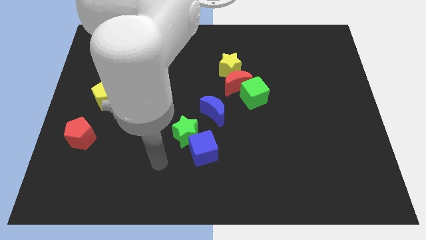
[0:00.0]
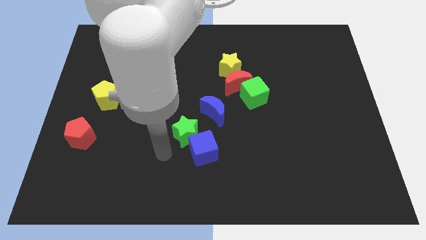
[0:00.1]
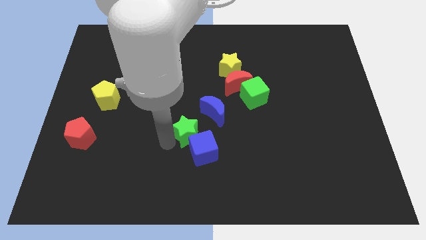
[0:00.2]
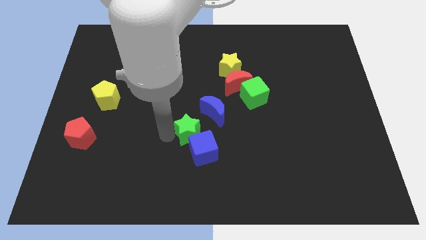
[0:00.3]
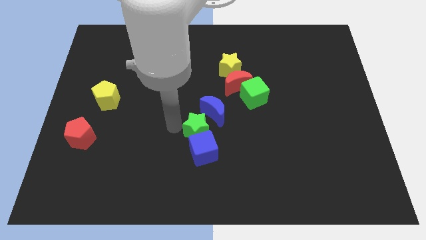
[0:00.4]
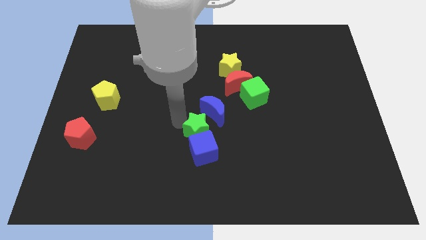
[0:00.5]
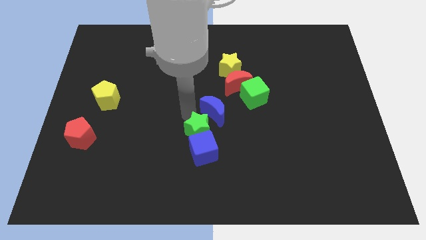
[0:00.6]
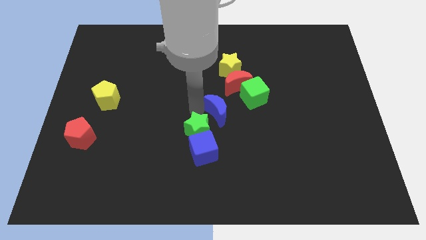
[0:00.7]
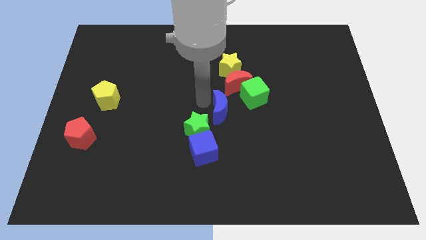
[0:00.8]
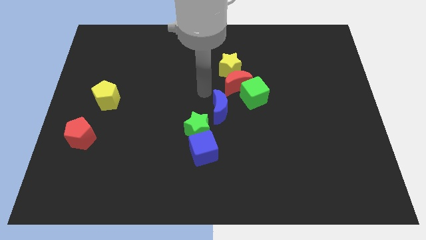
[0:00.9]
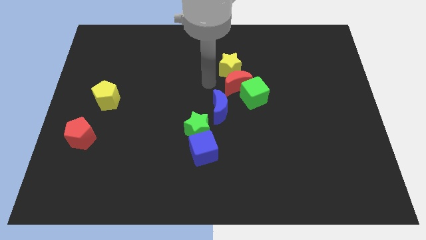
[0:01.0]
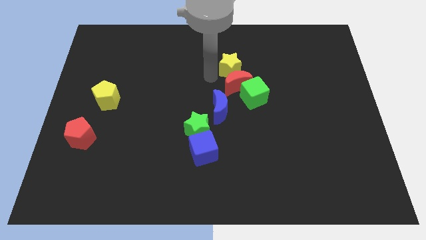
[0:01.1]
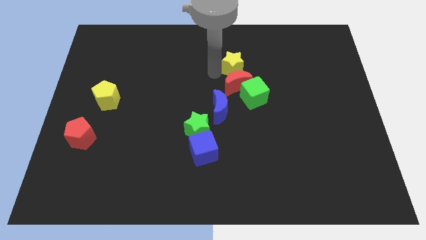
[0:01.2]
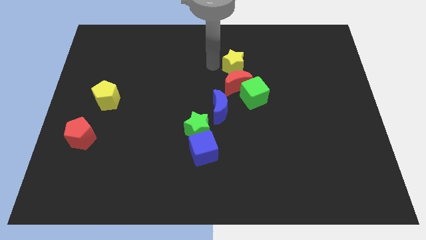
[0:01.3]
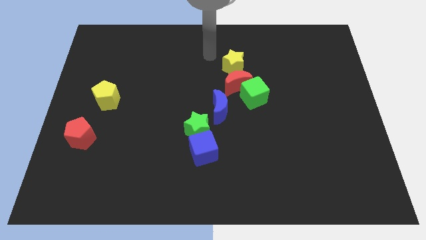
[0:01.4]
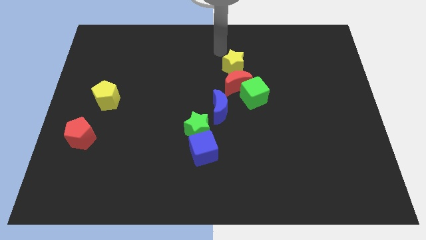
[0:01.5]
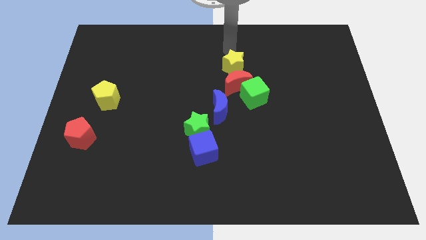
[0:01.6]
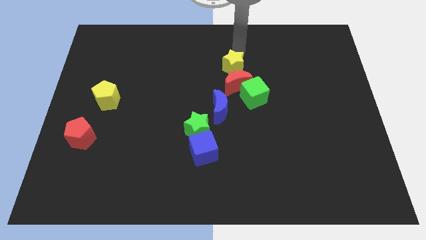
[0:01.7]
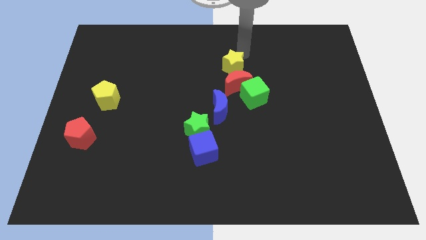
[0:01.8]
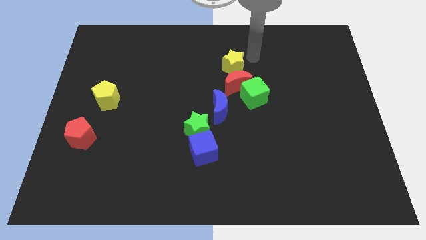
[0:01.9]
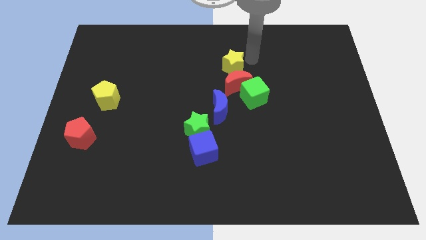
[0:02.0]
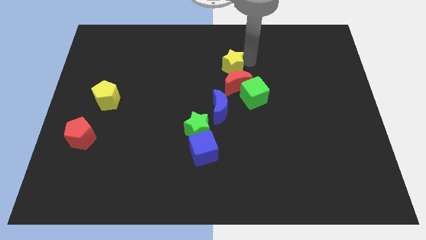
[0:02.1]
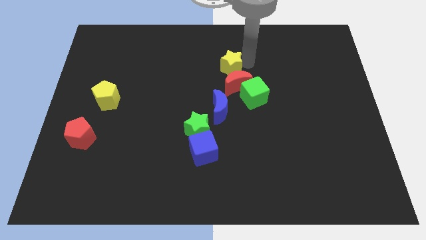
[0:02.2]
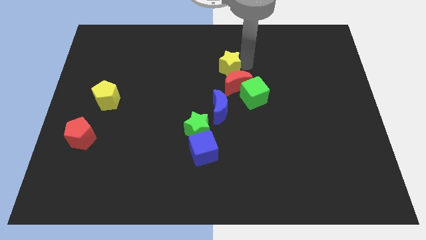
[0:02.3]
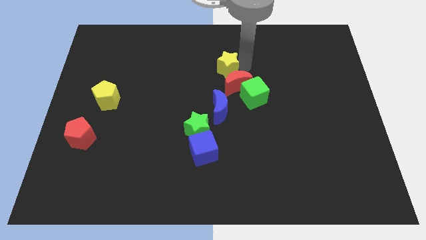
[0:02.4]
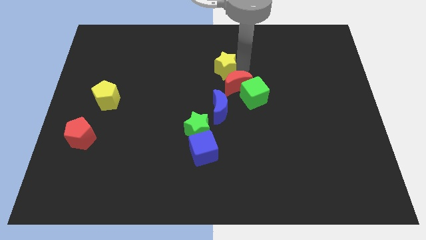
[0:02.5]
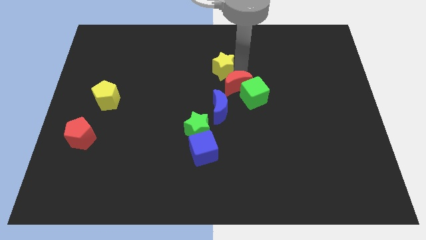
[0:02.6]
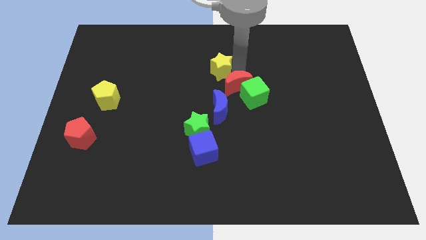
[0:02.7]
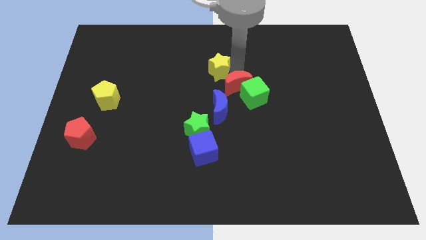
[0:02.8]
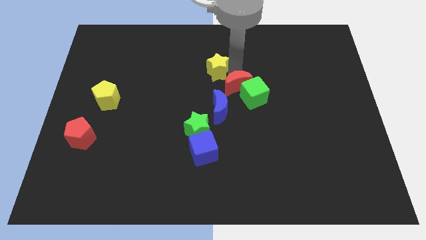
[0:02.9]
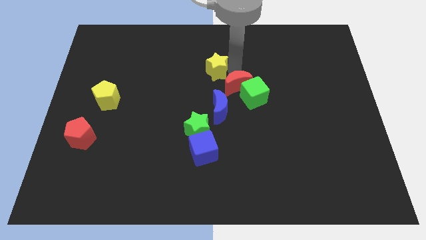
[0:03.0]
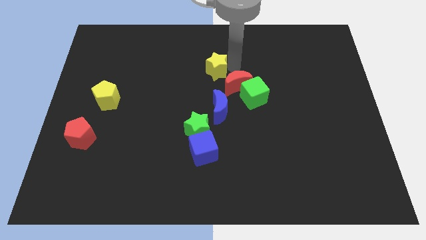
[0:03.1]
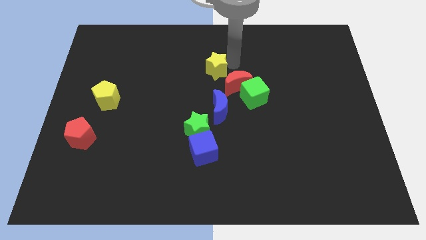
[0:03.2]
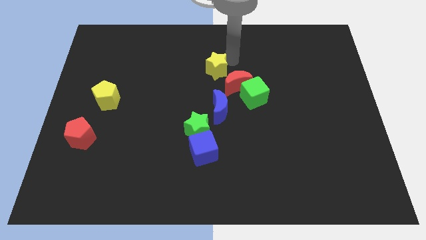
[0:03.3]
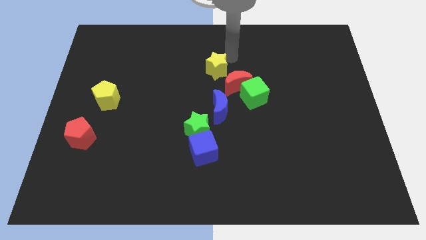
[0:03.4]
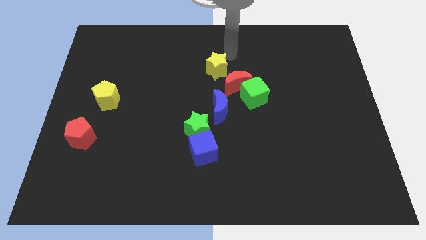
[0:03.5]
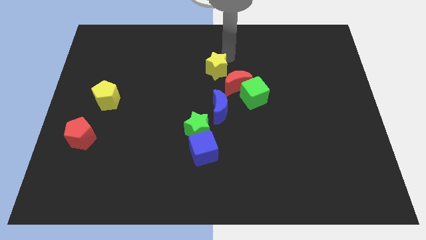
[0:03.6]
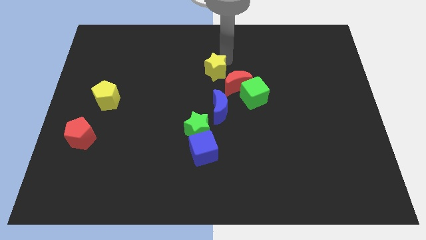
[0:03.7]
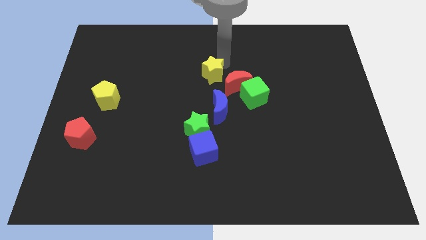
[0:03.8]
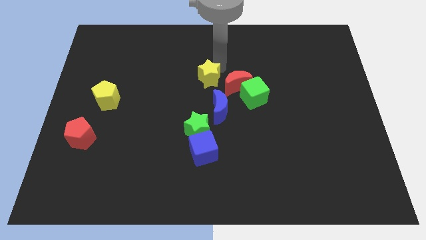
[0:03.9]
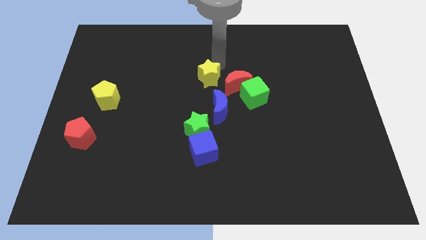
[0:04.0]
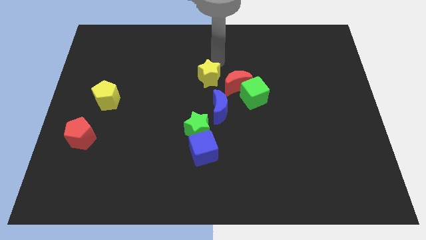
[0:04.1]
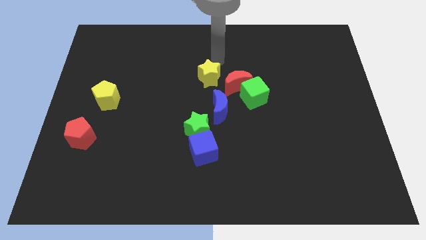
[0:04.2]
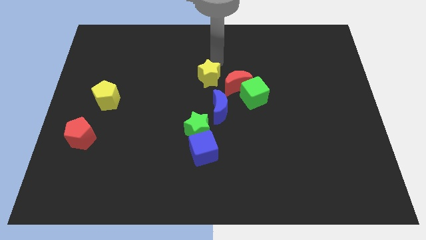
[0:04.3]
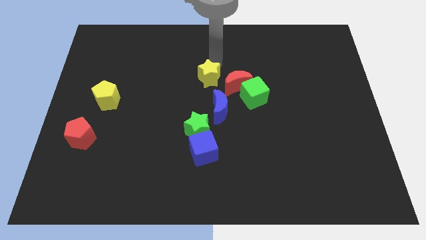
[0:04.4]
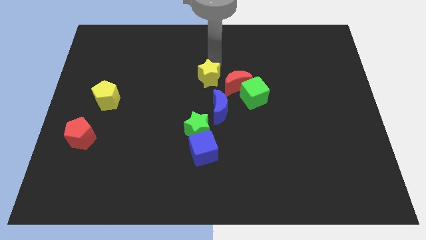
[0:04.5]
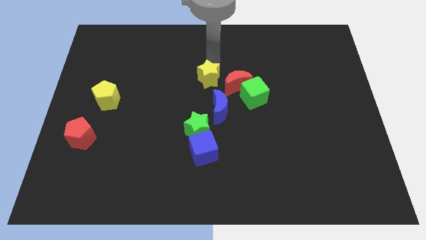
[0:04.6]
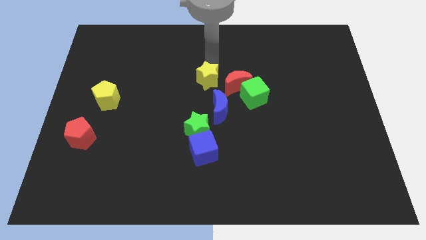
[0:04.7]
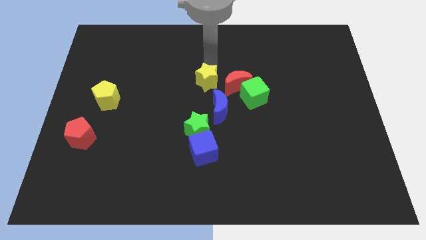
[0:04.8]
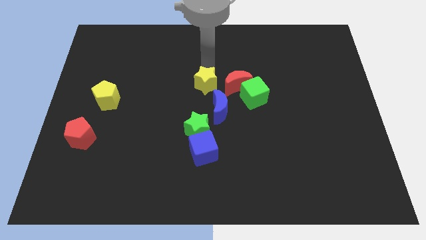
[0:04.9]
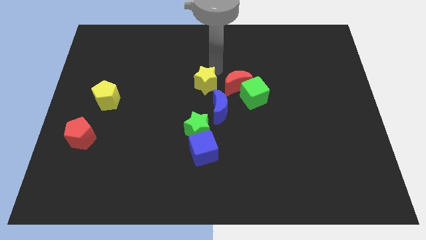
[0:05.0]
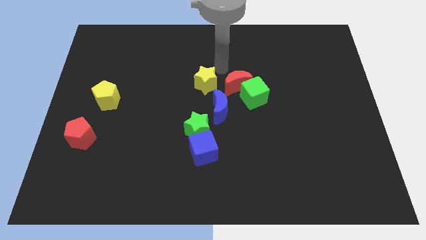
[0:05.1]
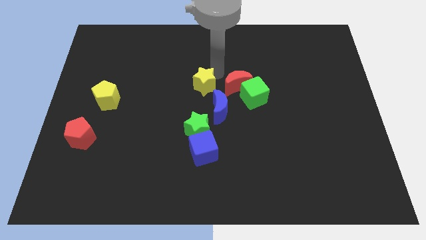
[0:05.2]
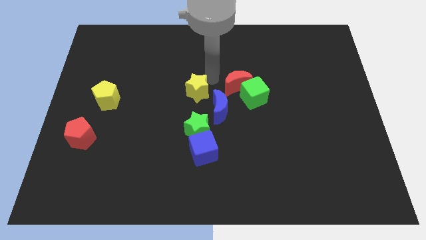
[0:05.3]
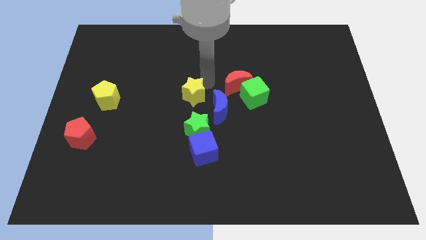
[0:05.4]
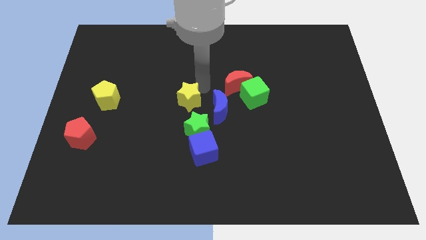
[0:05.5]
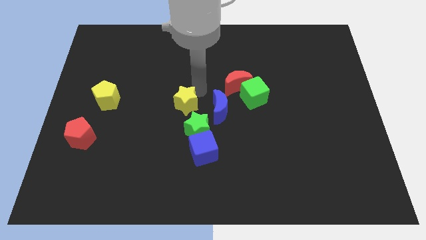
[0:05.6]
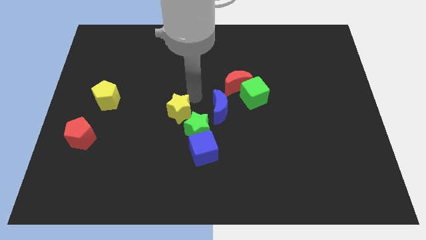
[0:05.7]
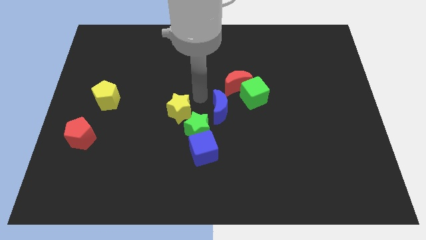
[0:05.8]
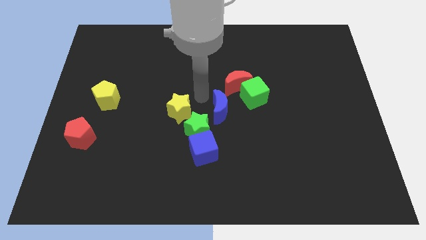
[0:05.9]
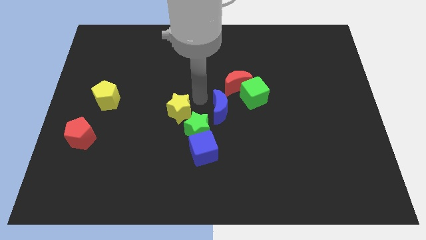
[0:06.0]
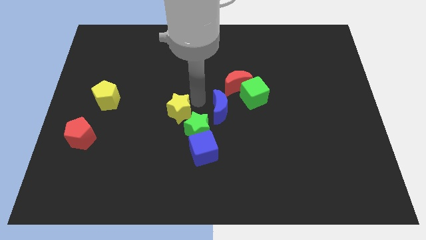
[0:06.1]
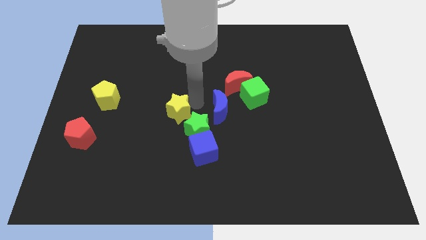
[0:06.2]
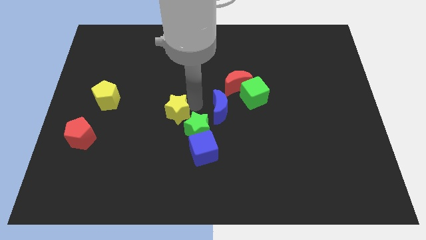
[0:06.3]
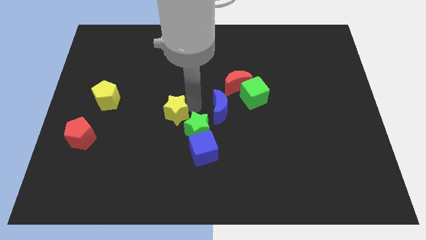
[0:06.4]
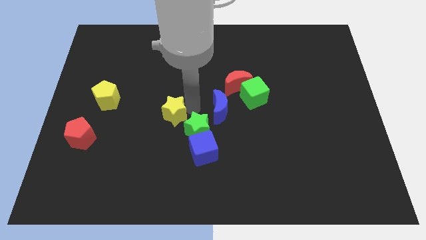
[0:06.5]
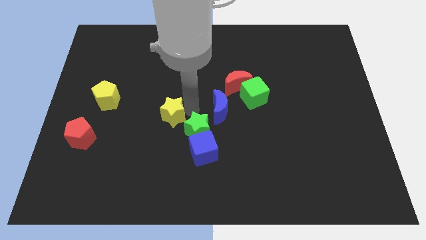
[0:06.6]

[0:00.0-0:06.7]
push the yellow star down and left

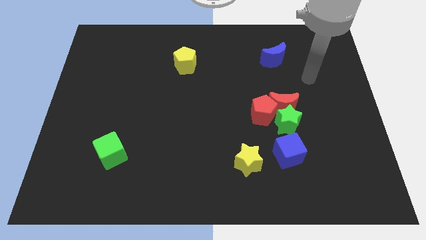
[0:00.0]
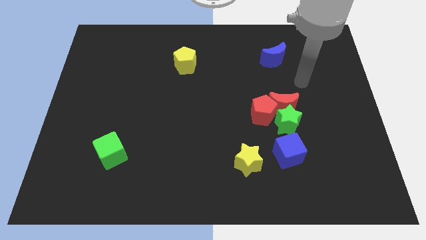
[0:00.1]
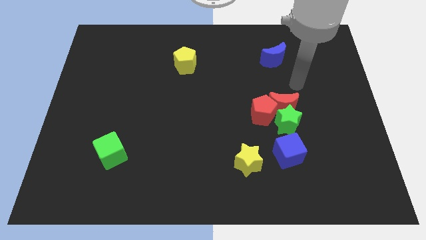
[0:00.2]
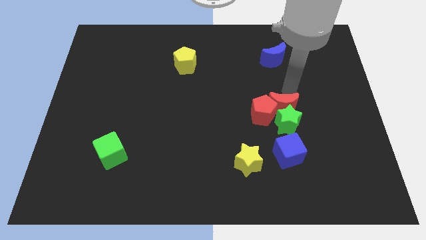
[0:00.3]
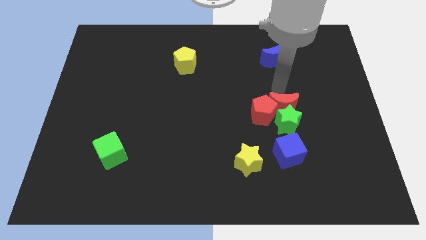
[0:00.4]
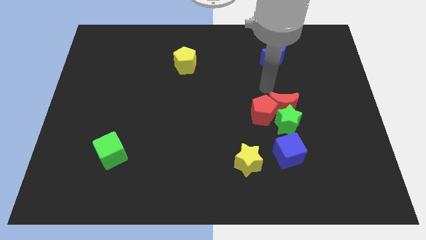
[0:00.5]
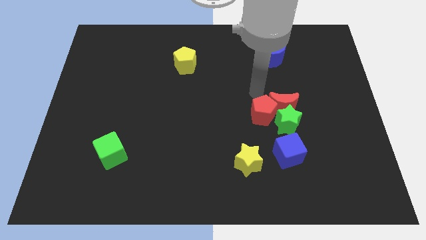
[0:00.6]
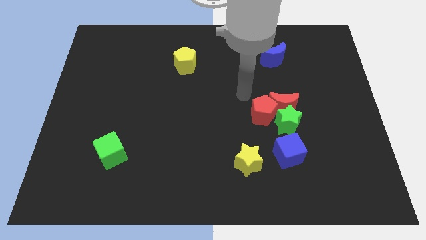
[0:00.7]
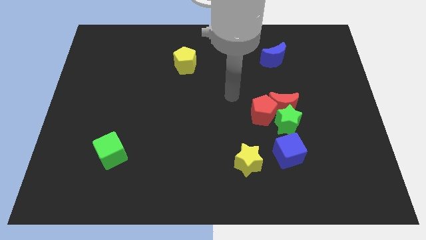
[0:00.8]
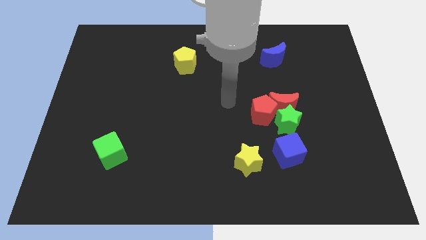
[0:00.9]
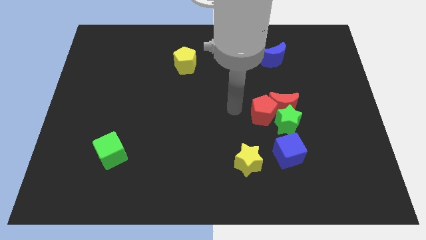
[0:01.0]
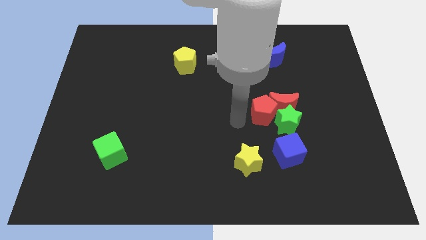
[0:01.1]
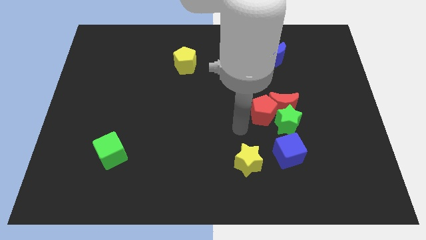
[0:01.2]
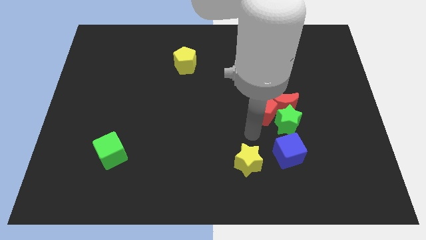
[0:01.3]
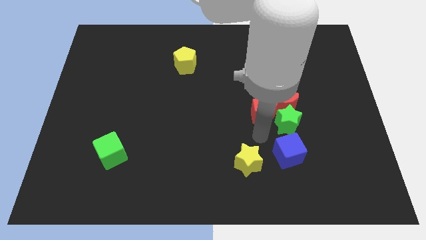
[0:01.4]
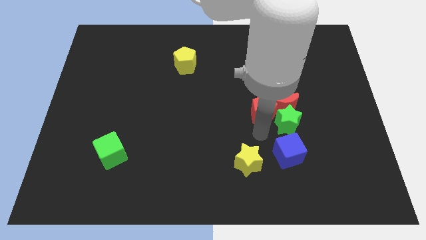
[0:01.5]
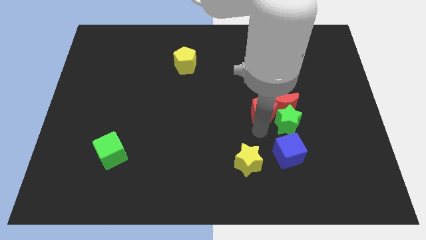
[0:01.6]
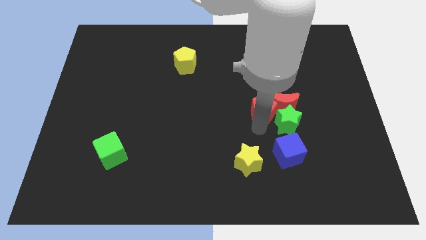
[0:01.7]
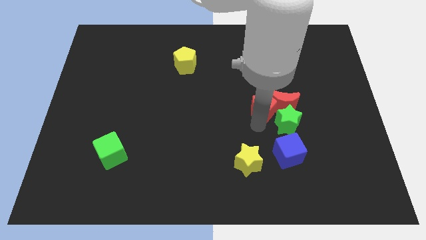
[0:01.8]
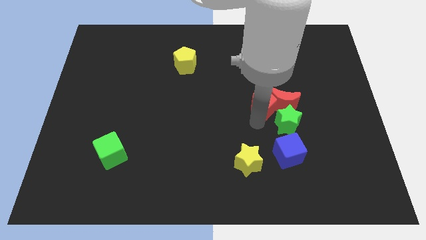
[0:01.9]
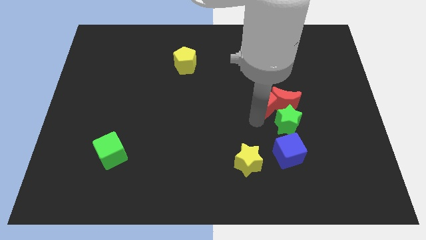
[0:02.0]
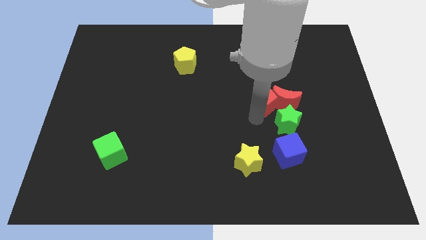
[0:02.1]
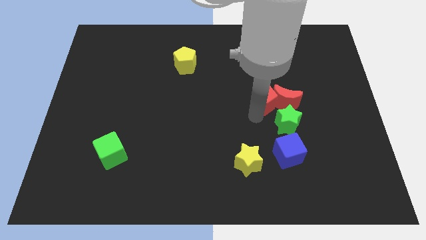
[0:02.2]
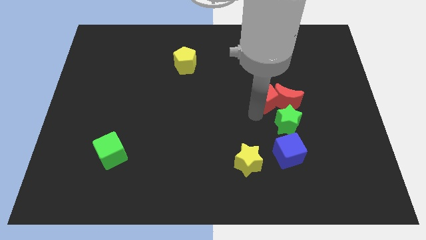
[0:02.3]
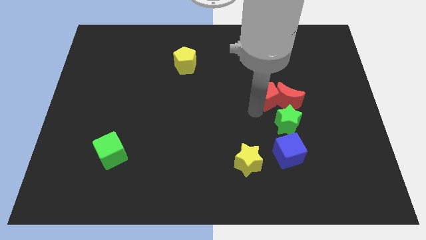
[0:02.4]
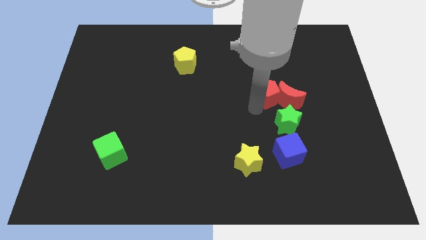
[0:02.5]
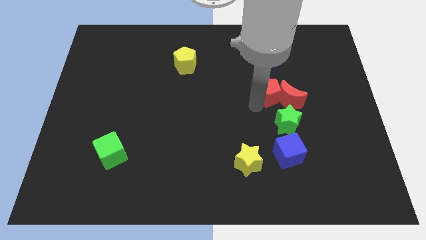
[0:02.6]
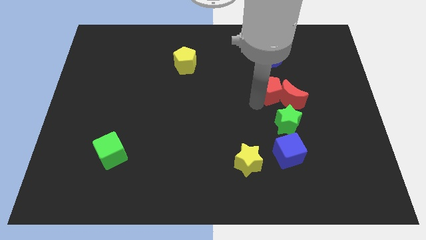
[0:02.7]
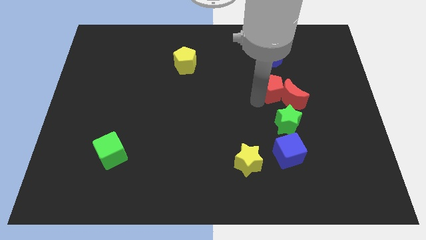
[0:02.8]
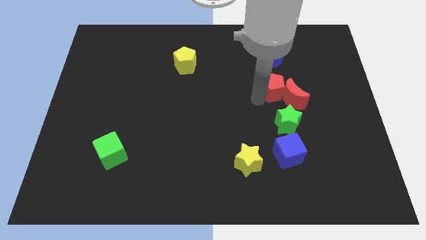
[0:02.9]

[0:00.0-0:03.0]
slide the red pentagon up and then to the right a bit
